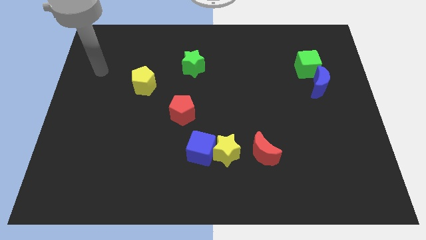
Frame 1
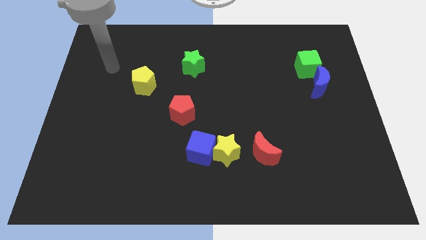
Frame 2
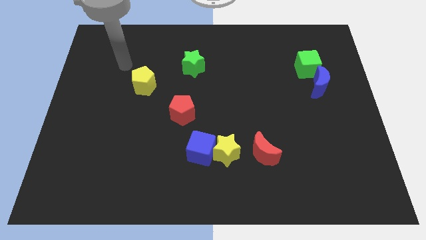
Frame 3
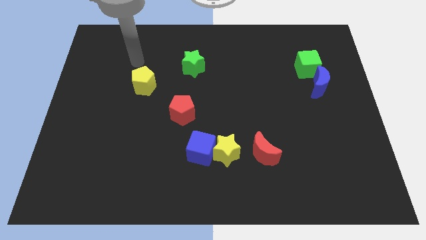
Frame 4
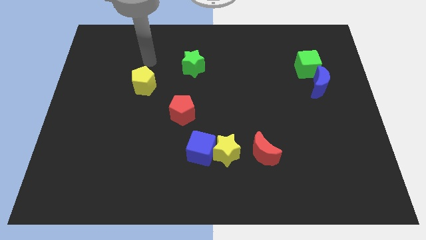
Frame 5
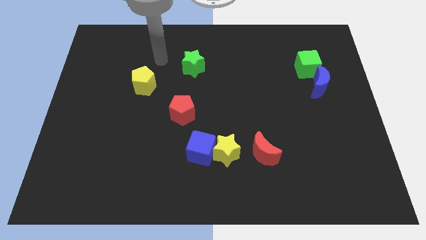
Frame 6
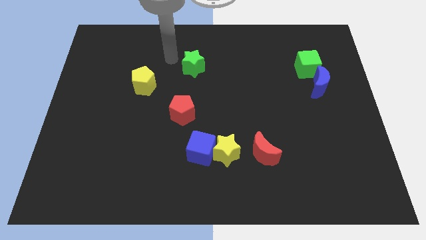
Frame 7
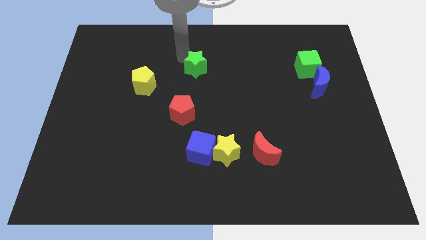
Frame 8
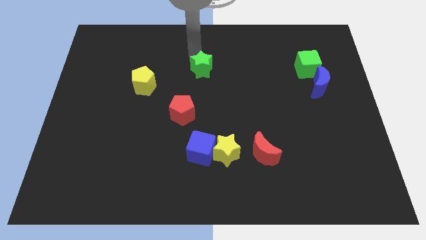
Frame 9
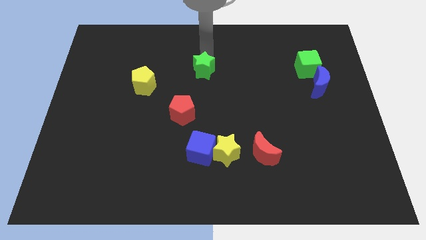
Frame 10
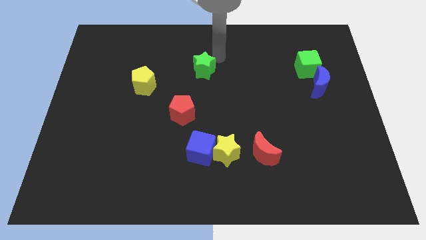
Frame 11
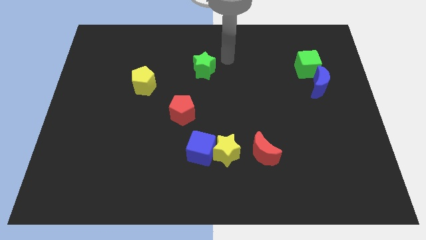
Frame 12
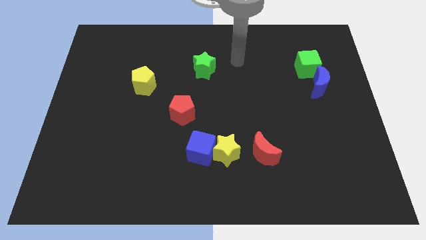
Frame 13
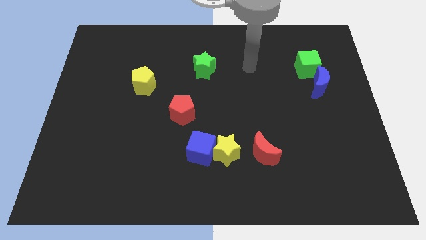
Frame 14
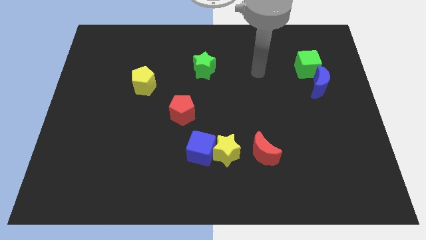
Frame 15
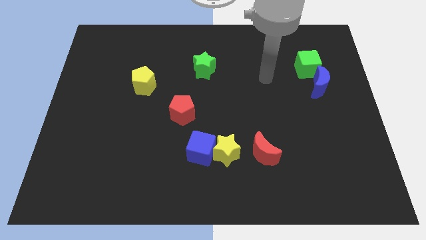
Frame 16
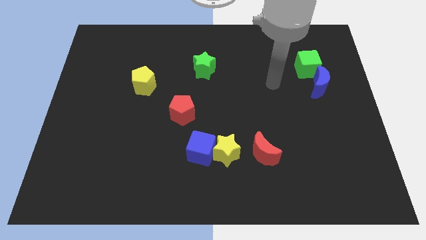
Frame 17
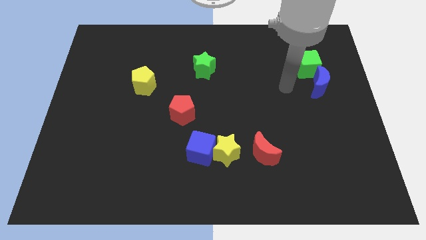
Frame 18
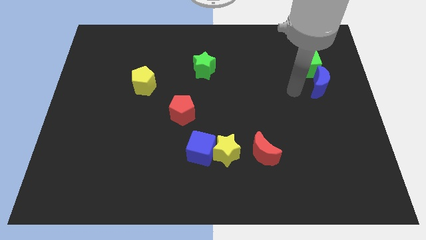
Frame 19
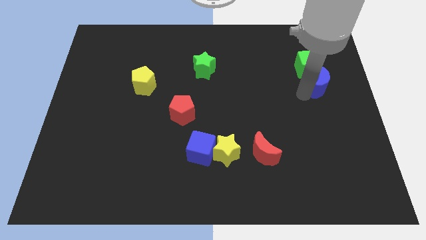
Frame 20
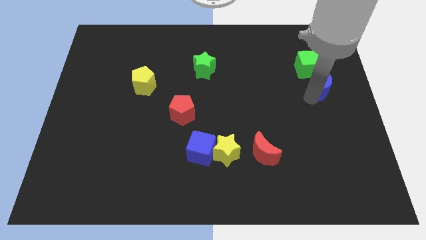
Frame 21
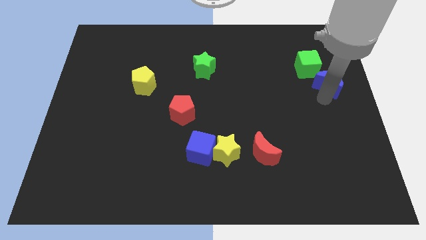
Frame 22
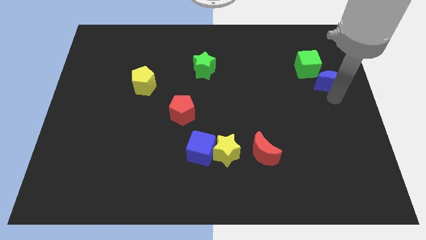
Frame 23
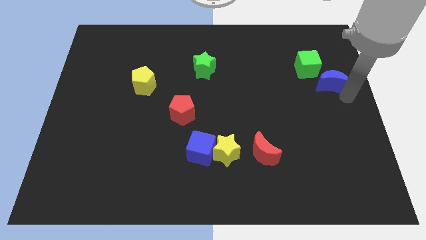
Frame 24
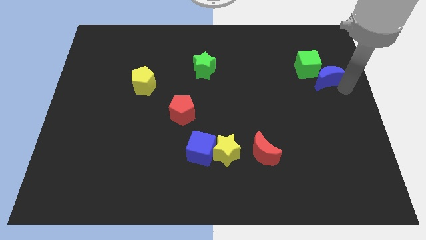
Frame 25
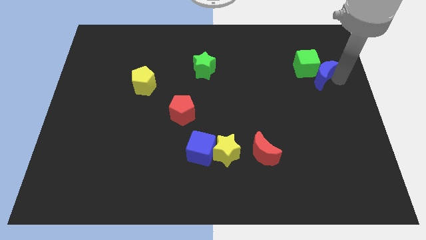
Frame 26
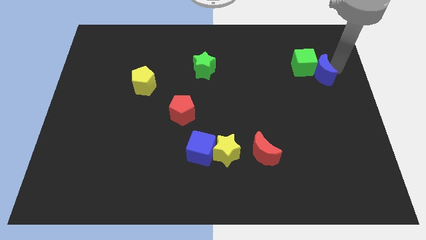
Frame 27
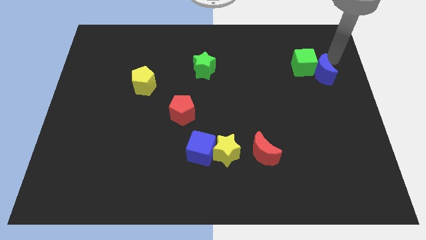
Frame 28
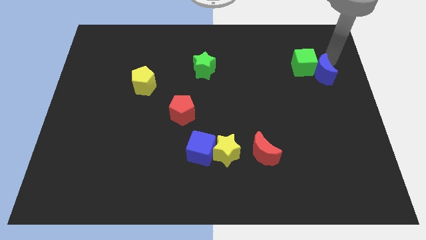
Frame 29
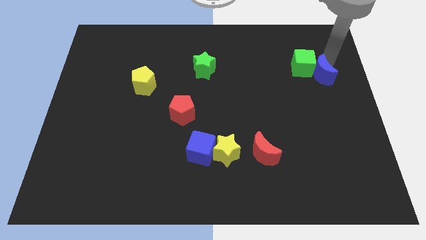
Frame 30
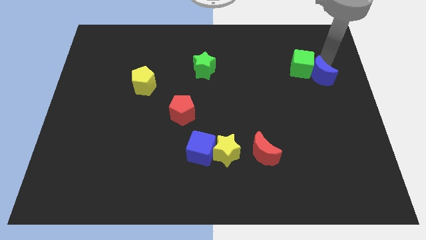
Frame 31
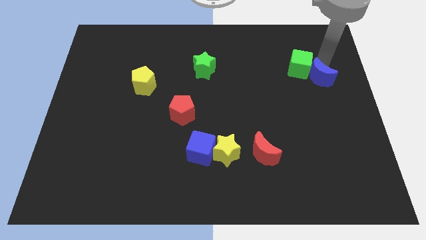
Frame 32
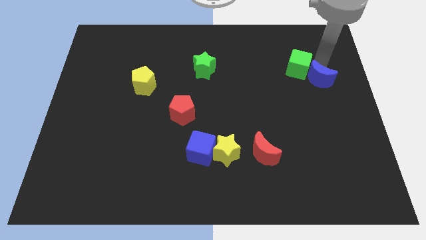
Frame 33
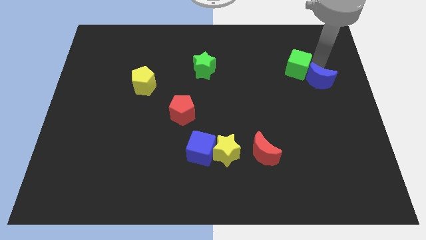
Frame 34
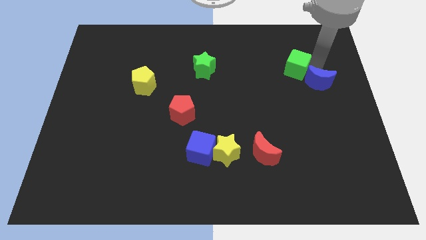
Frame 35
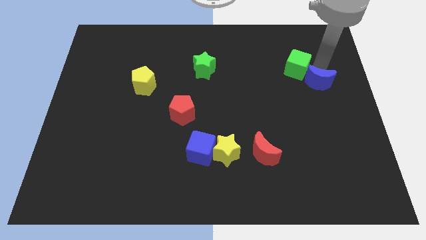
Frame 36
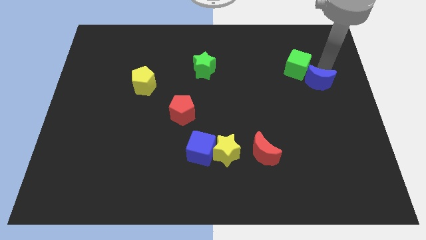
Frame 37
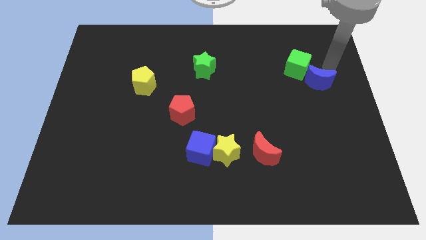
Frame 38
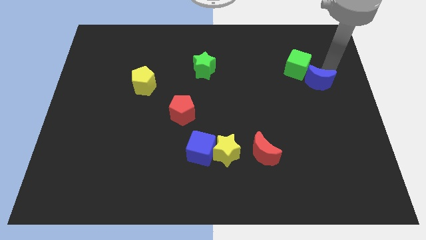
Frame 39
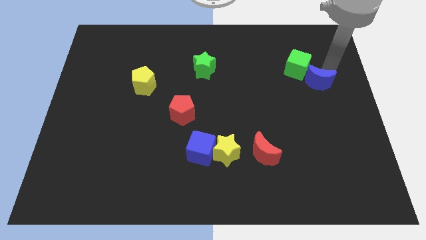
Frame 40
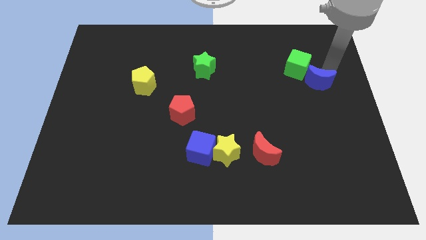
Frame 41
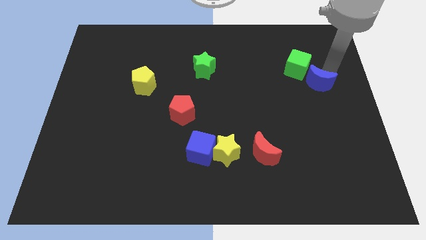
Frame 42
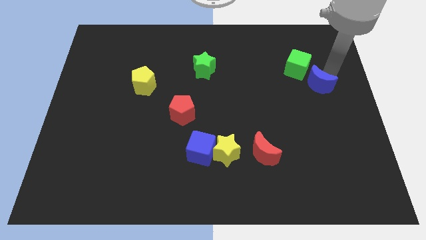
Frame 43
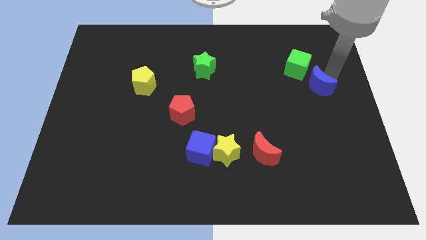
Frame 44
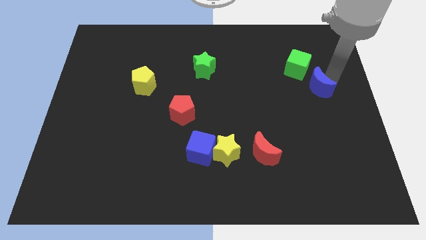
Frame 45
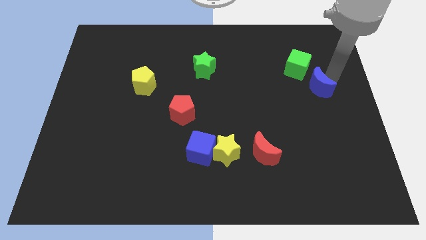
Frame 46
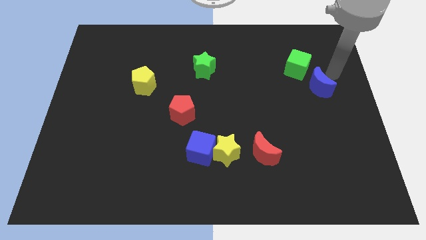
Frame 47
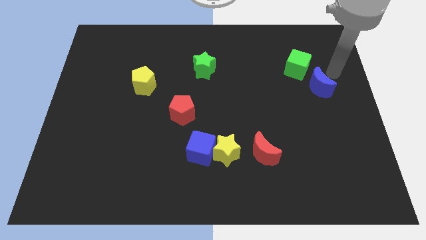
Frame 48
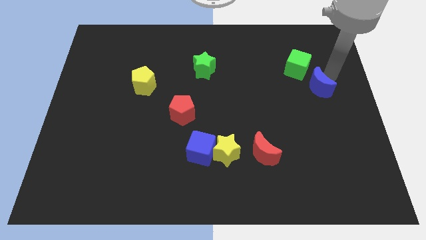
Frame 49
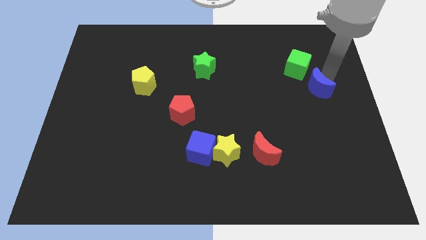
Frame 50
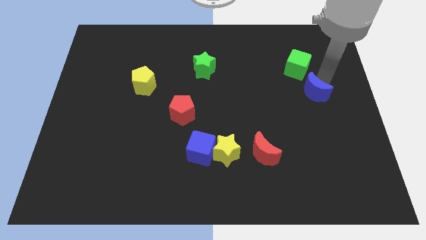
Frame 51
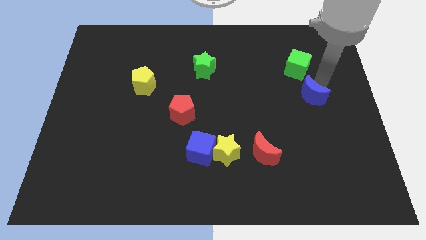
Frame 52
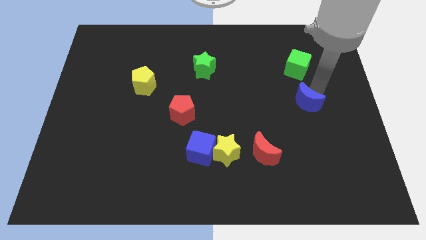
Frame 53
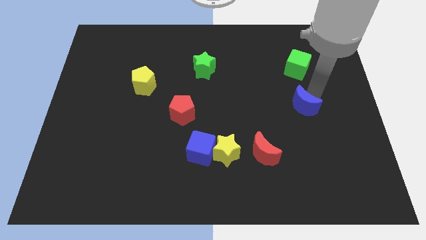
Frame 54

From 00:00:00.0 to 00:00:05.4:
move the blue moon downwards and then left a little bit

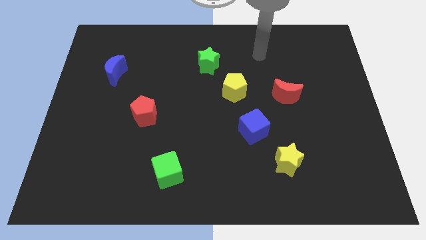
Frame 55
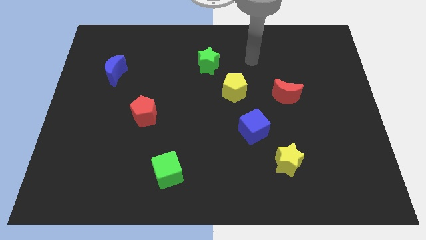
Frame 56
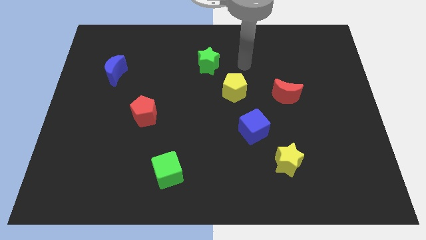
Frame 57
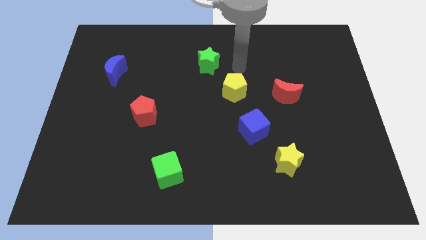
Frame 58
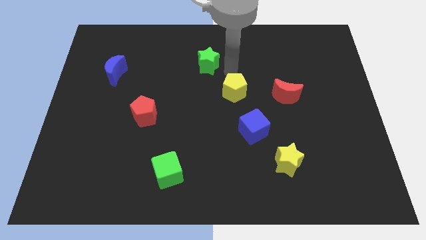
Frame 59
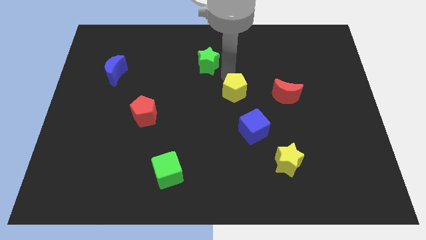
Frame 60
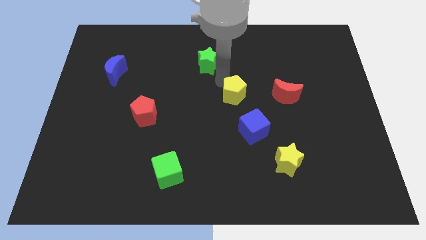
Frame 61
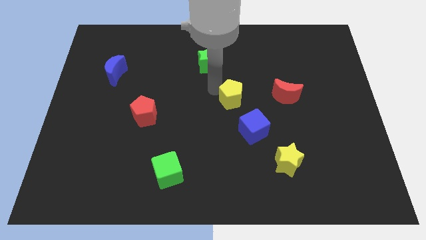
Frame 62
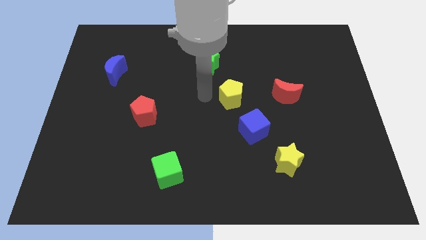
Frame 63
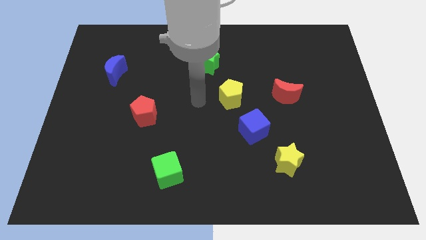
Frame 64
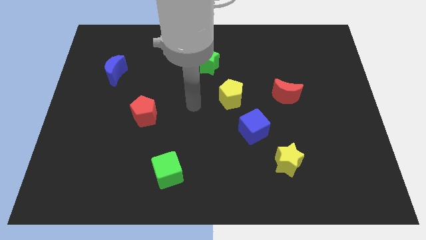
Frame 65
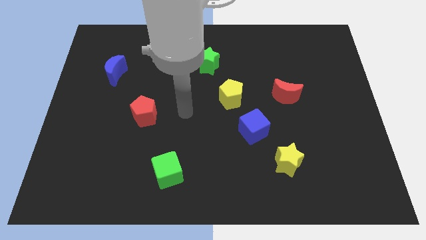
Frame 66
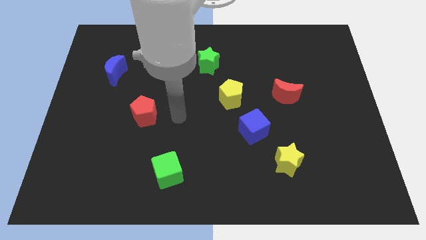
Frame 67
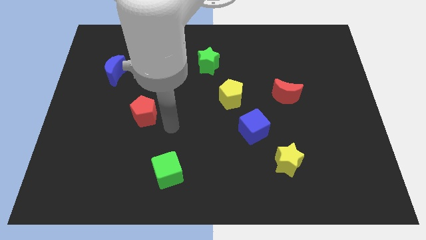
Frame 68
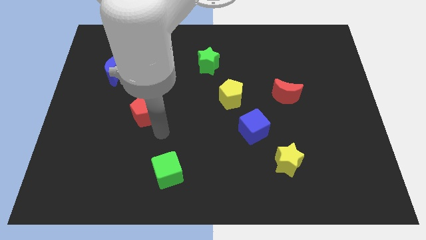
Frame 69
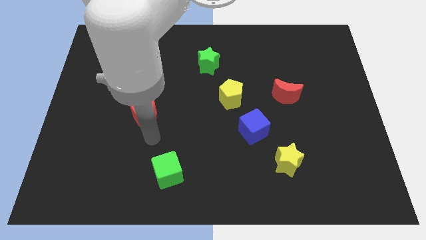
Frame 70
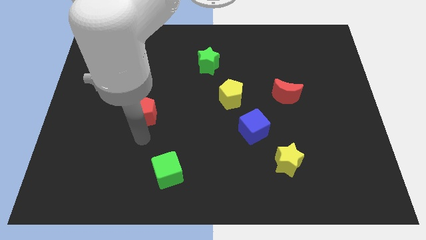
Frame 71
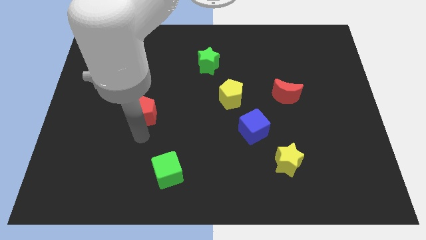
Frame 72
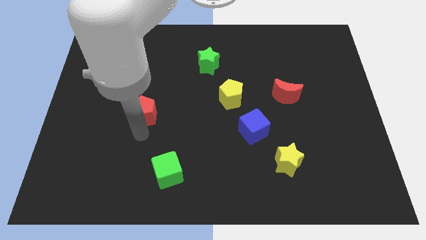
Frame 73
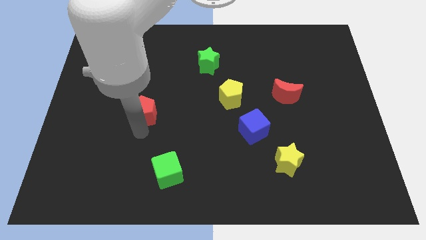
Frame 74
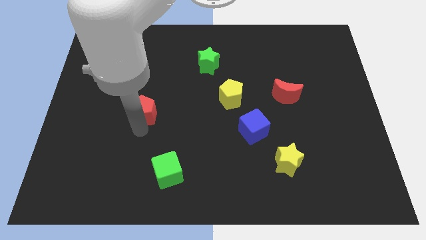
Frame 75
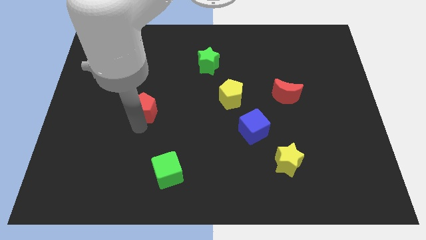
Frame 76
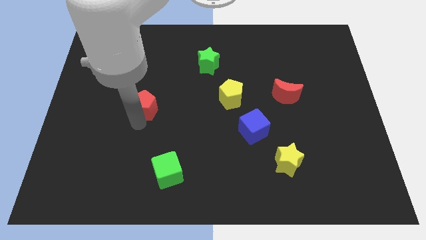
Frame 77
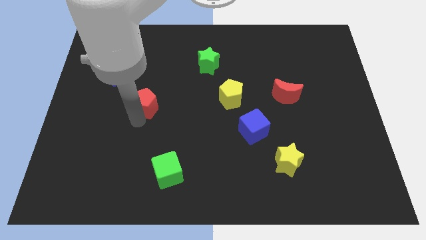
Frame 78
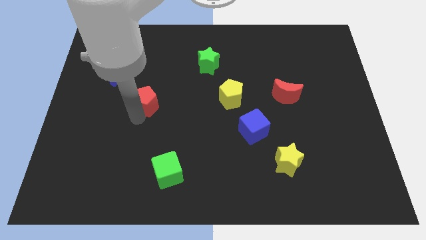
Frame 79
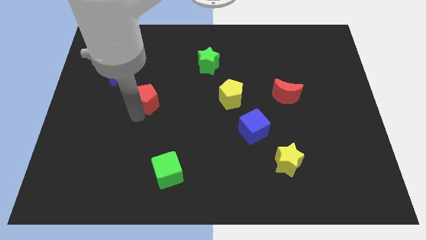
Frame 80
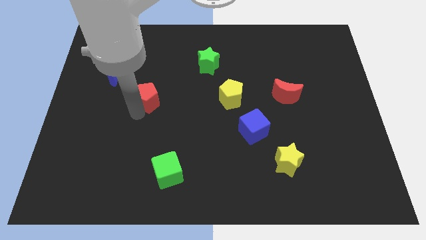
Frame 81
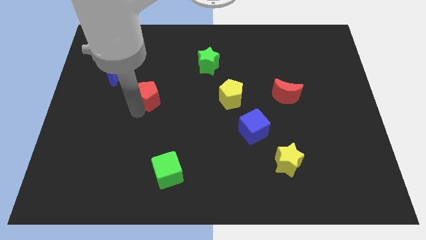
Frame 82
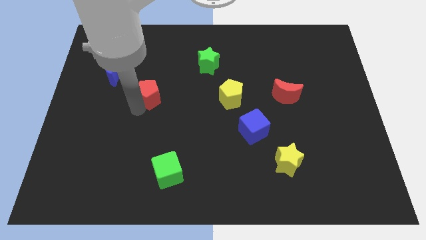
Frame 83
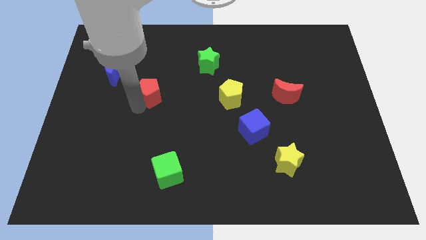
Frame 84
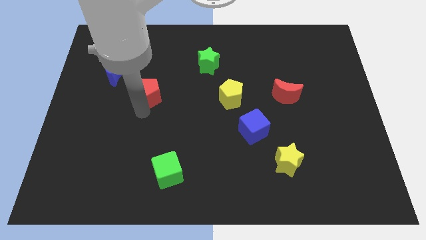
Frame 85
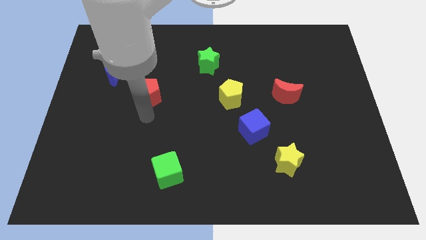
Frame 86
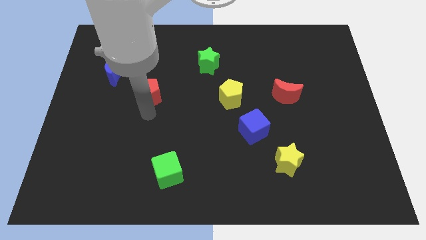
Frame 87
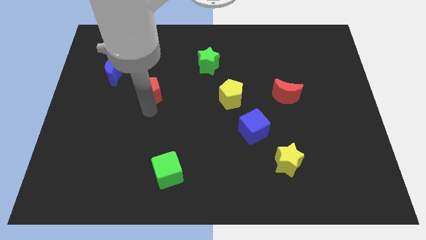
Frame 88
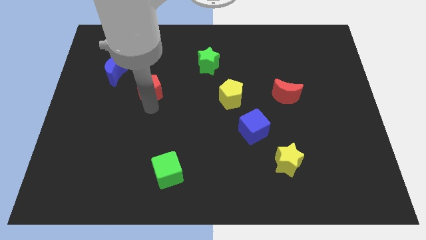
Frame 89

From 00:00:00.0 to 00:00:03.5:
move the red pentagon up slightly
